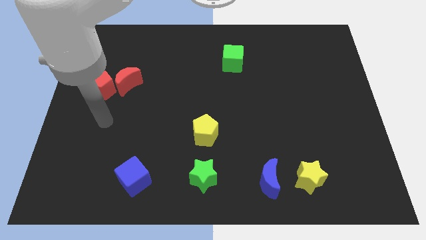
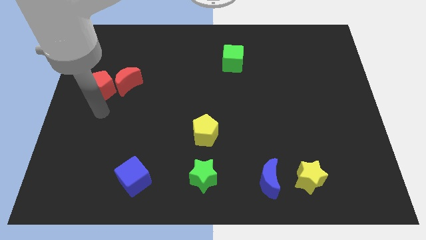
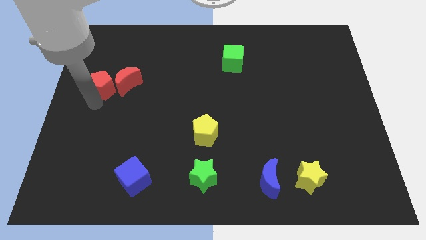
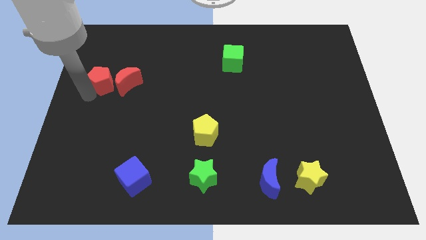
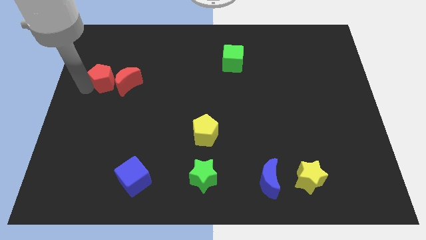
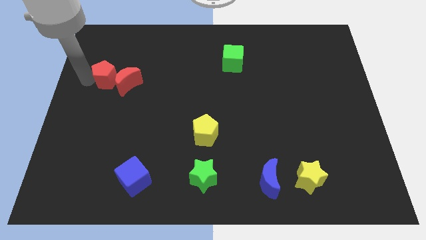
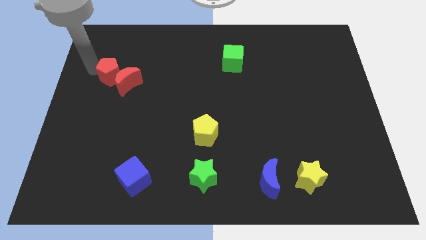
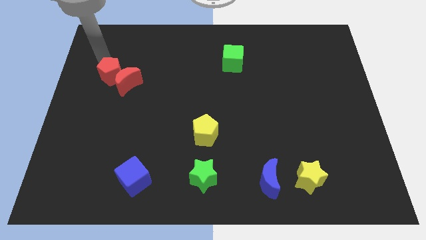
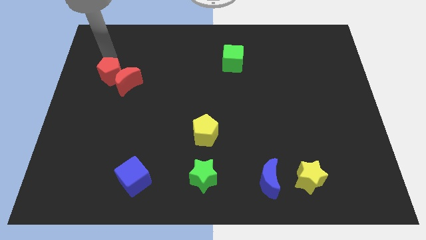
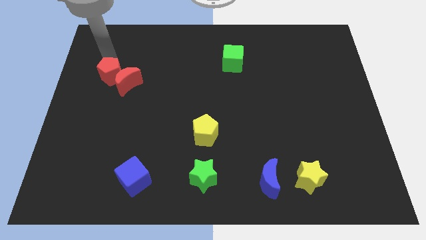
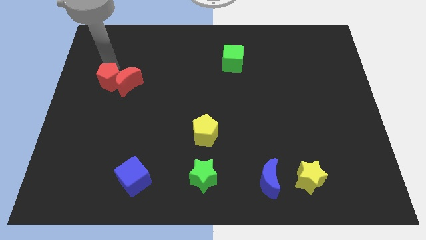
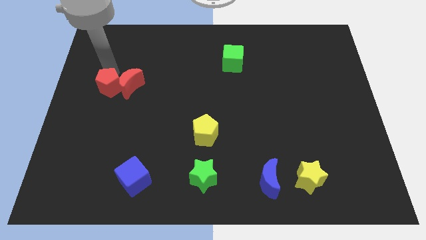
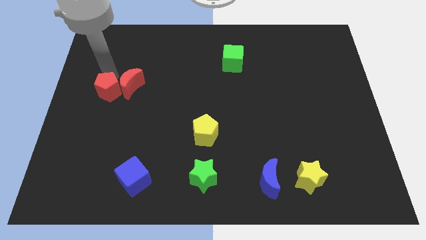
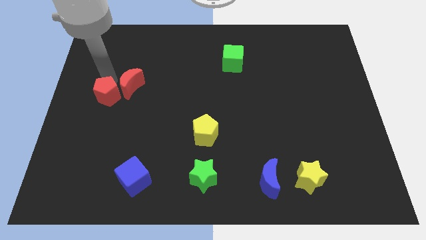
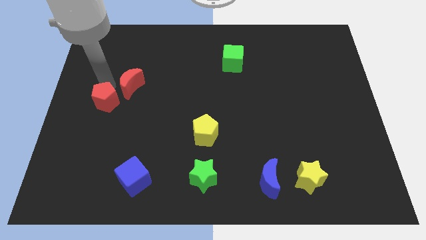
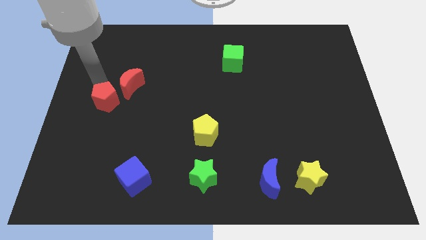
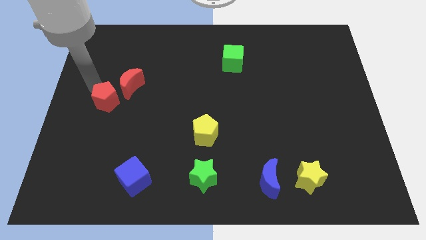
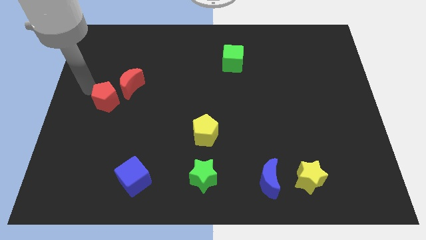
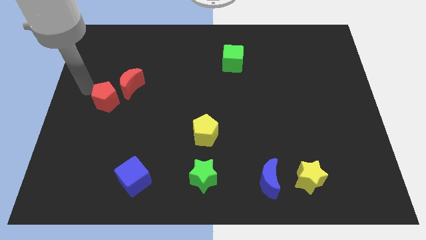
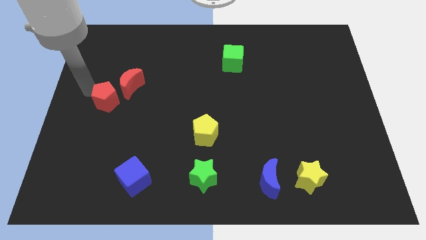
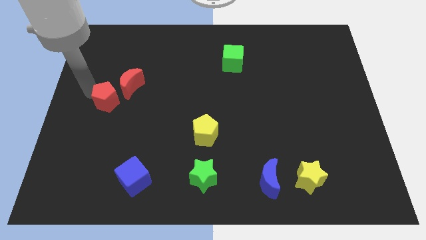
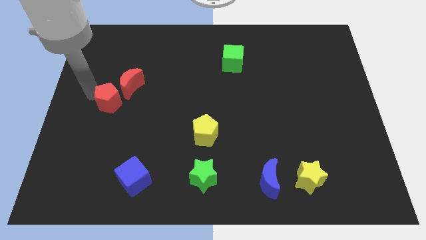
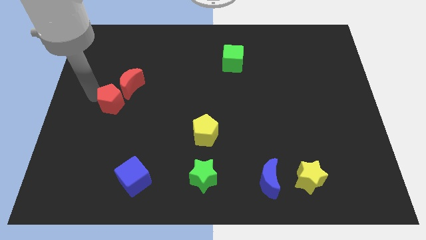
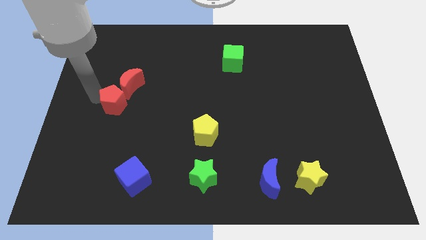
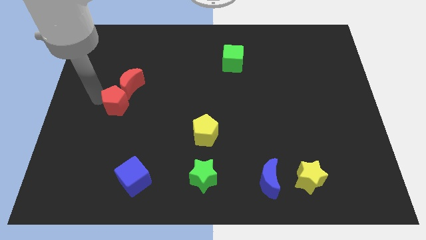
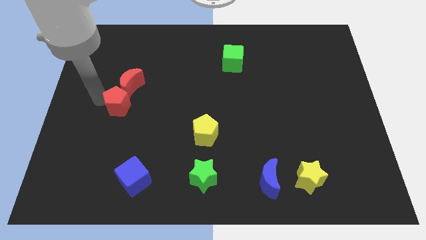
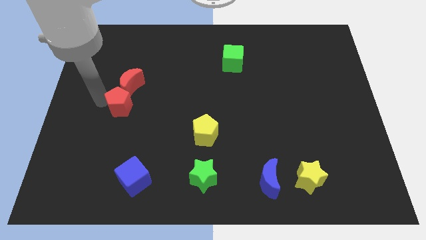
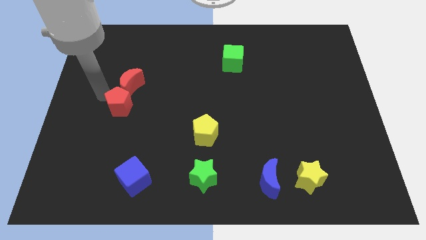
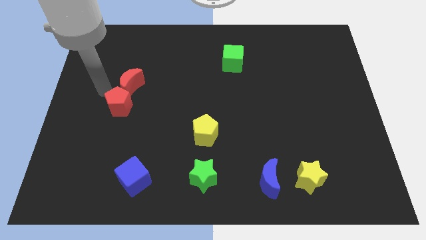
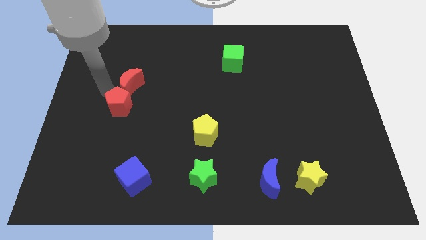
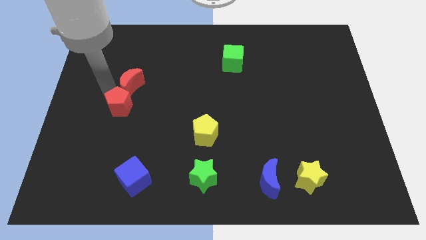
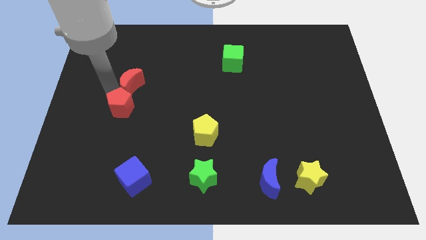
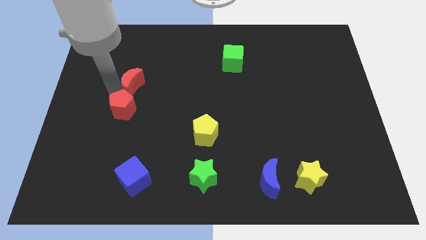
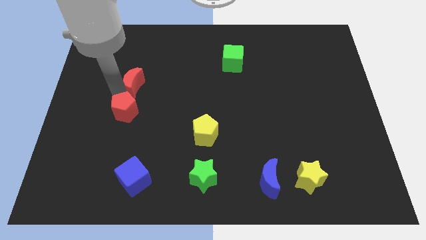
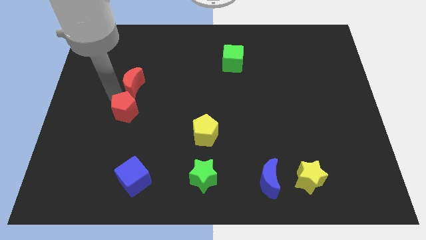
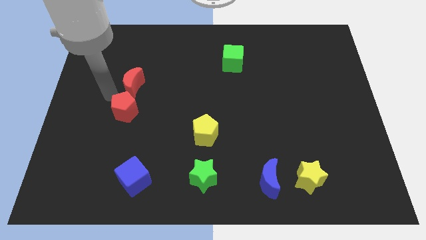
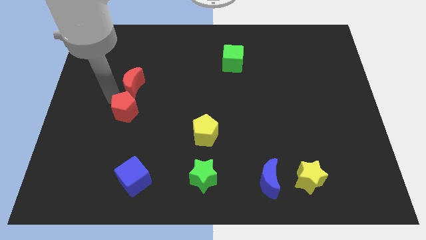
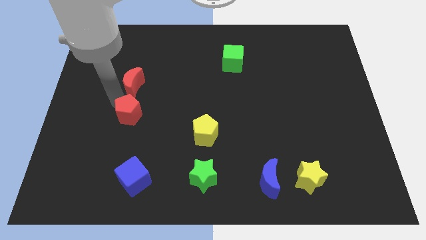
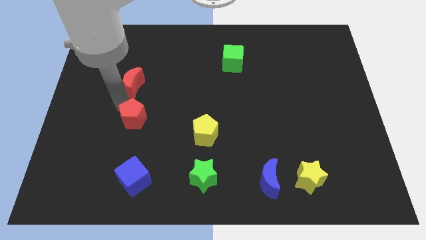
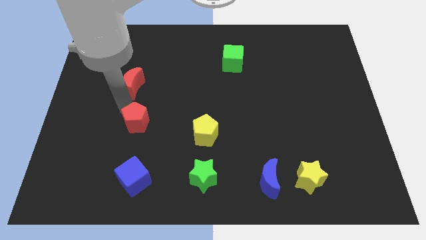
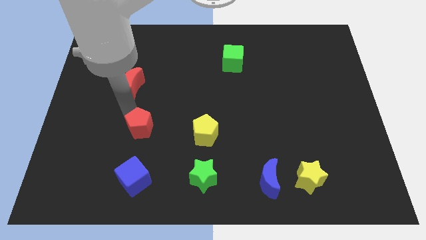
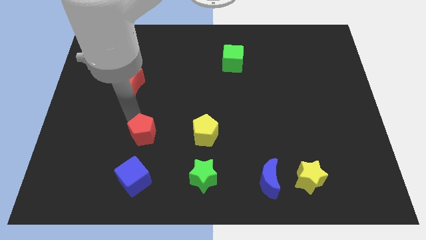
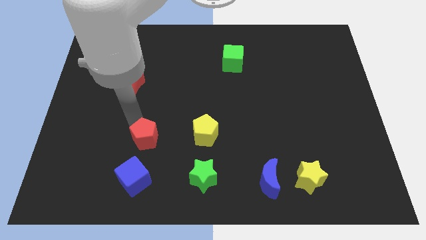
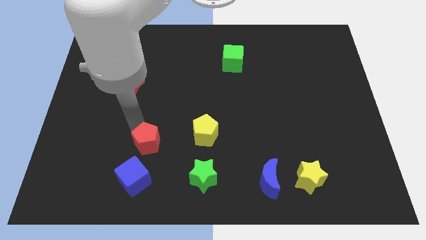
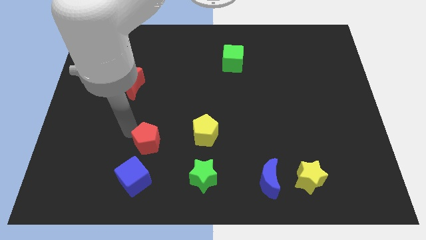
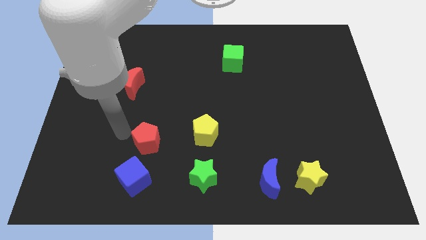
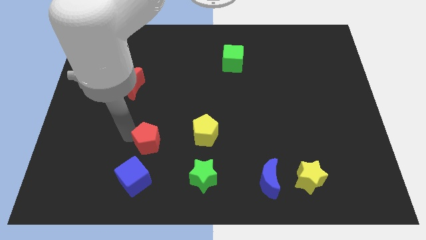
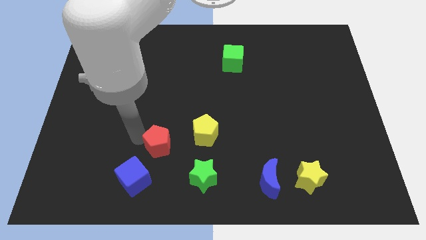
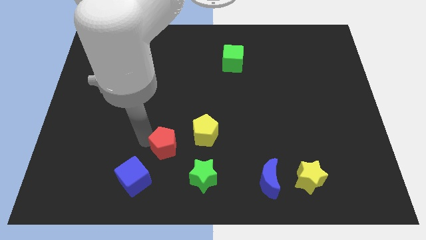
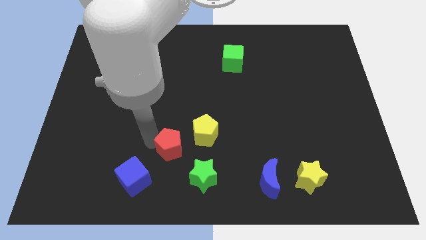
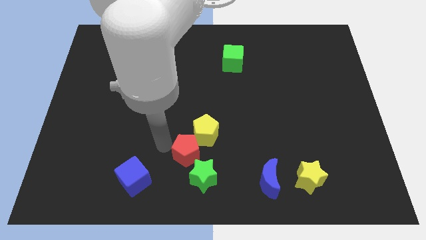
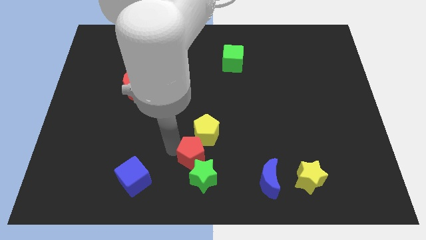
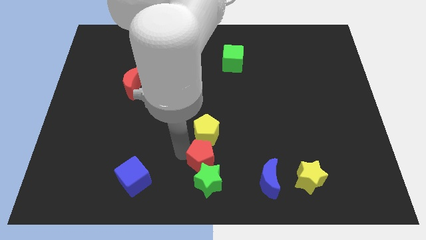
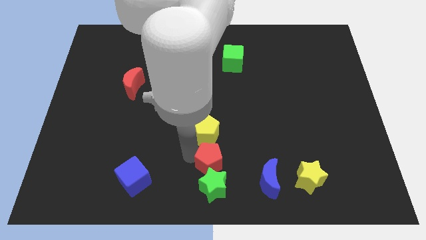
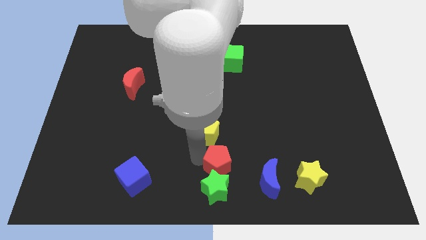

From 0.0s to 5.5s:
move the red pentagon to the top right of the green star

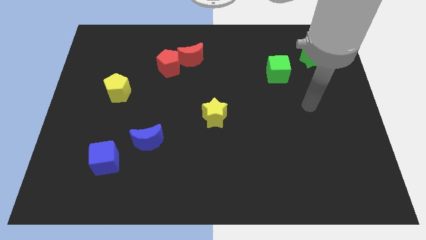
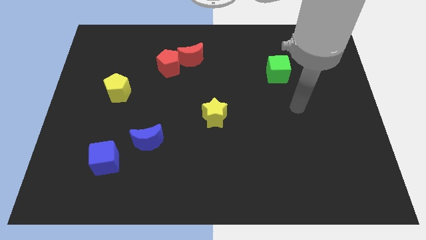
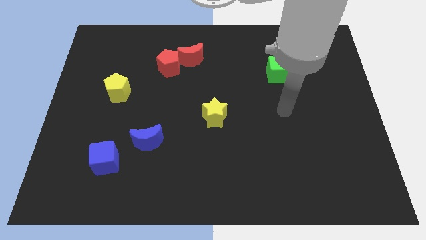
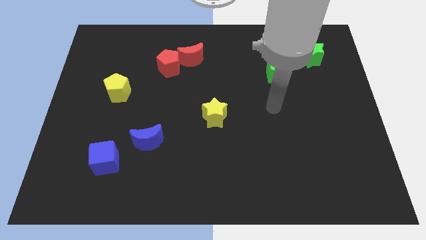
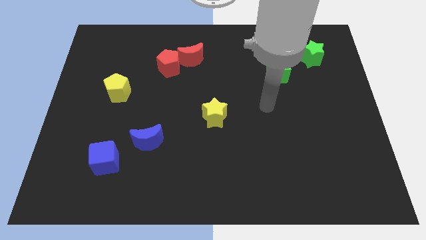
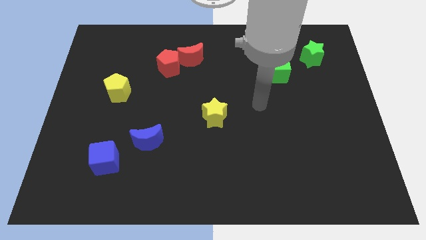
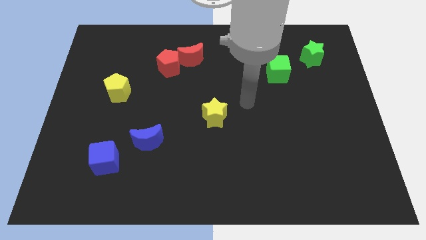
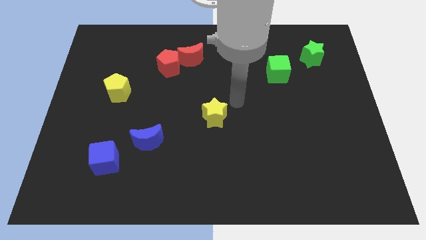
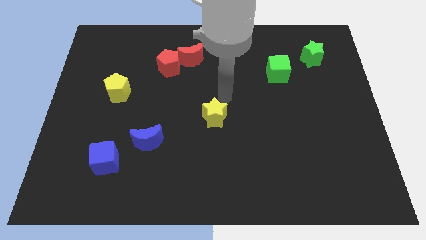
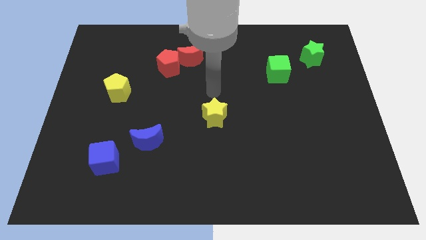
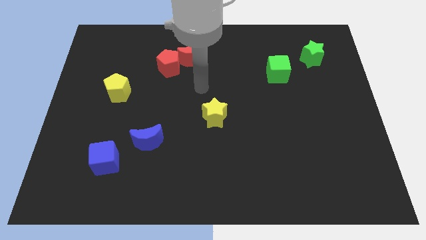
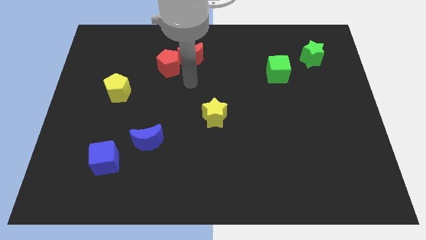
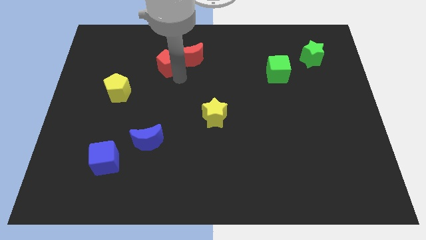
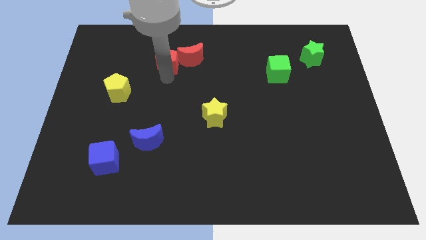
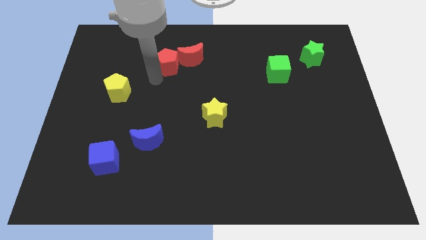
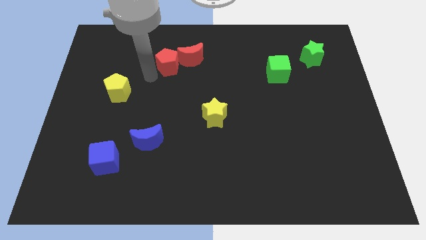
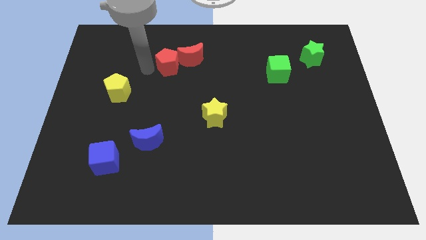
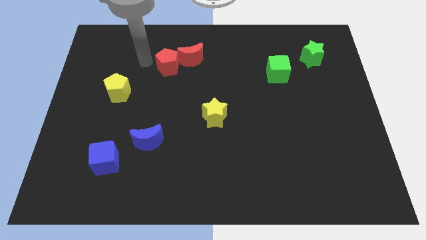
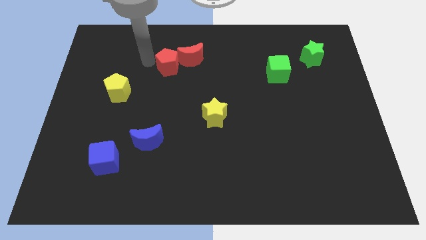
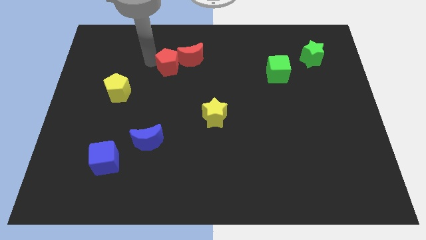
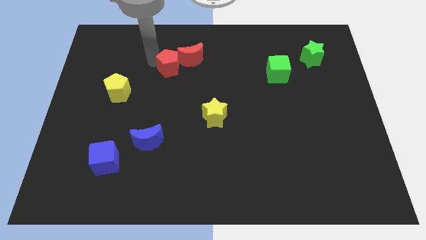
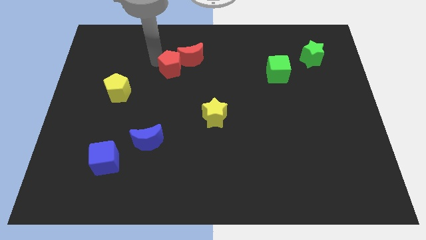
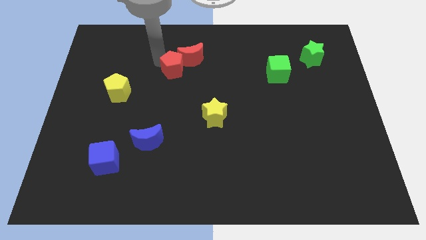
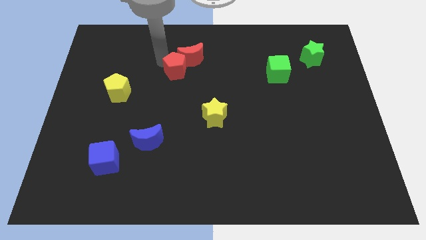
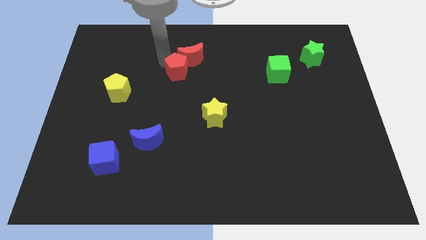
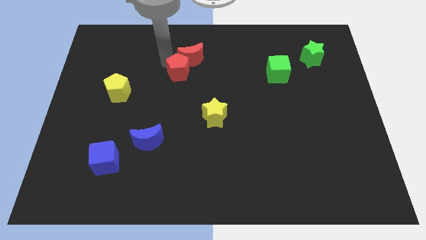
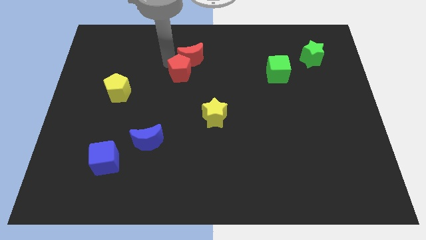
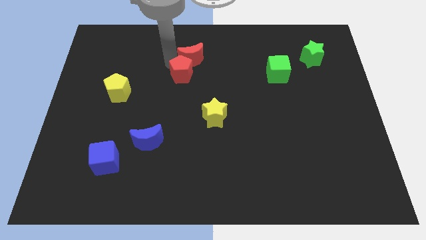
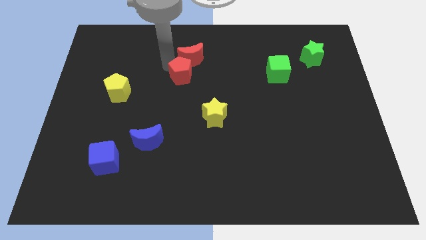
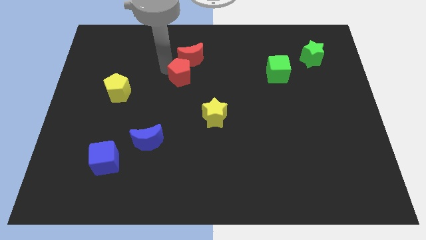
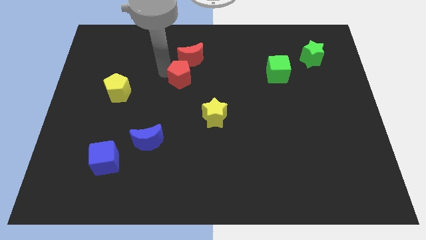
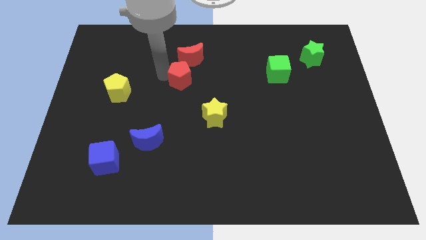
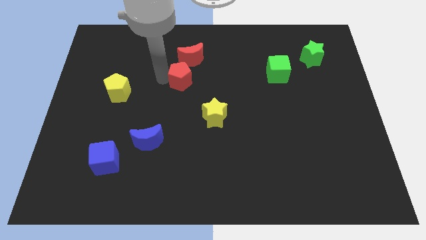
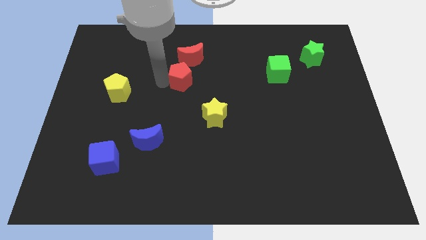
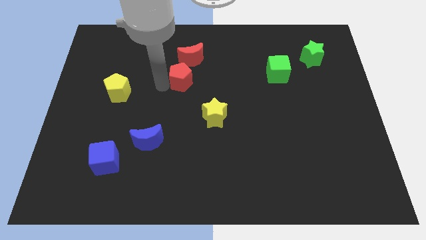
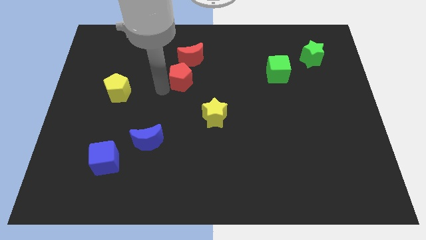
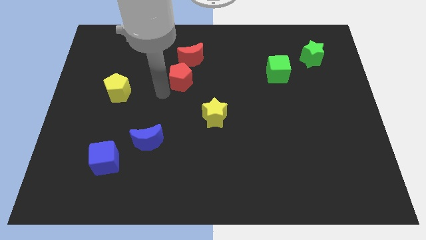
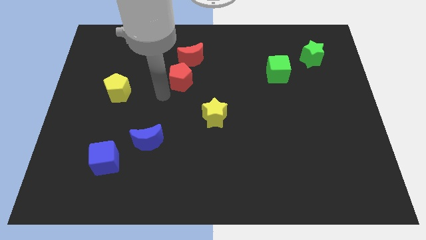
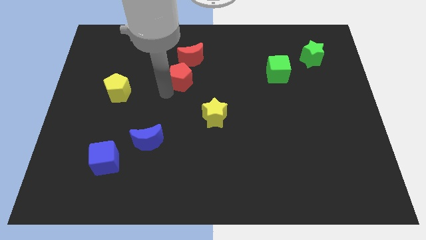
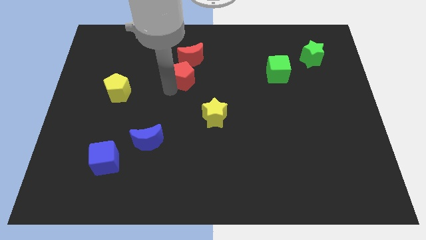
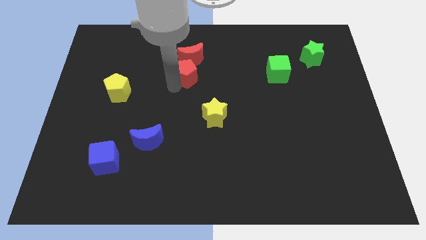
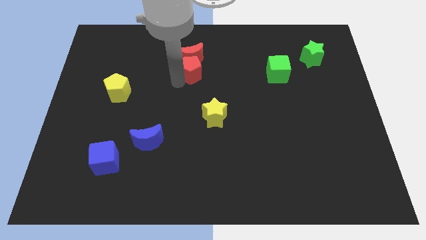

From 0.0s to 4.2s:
move the red pentagon diagonally down and to the right of the red moon
